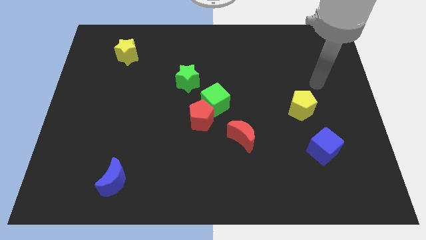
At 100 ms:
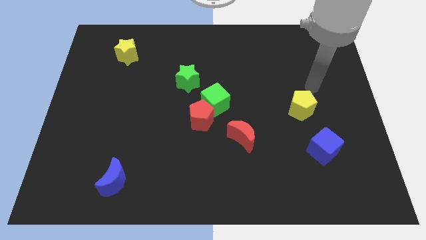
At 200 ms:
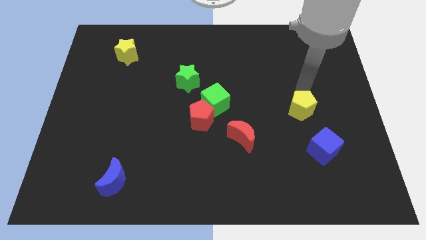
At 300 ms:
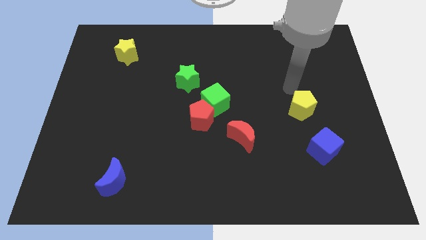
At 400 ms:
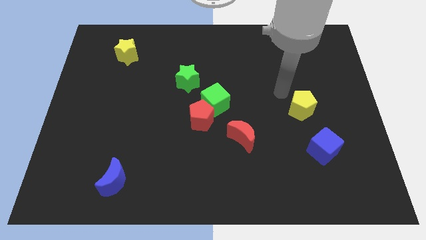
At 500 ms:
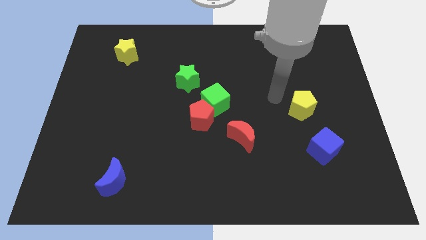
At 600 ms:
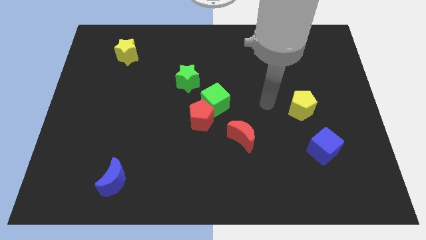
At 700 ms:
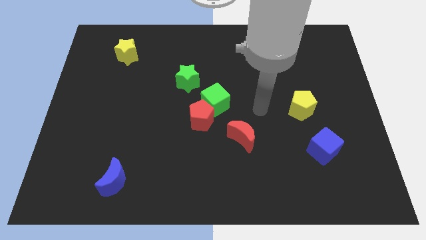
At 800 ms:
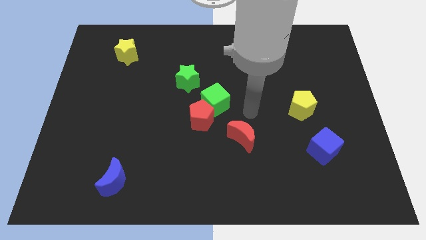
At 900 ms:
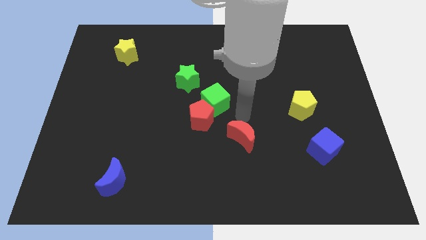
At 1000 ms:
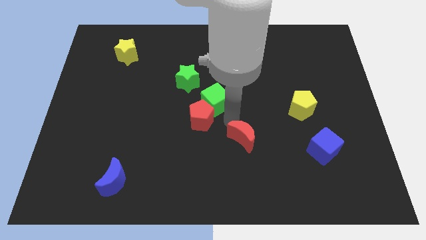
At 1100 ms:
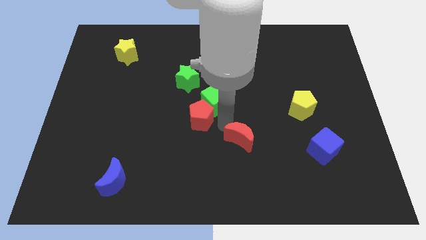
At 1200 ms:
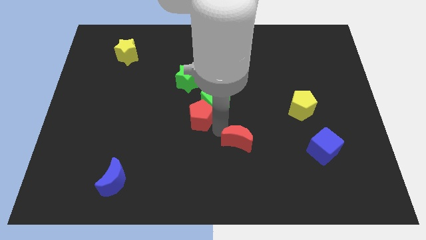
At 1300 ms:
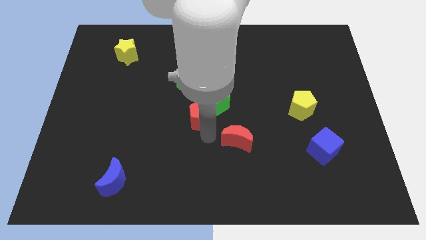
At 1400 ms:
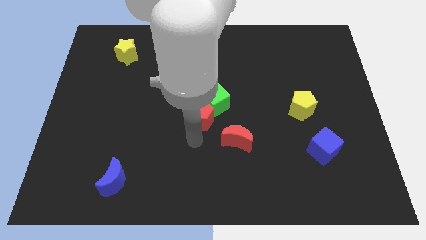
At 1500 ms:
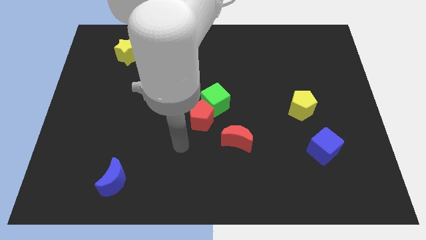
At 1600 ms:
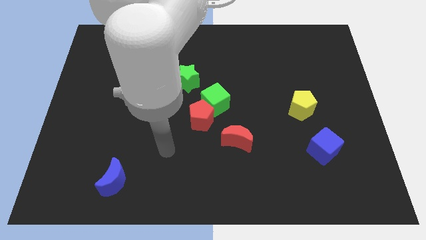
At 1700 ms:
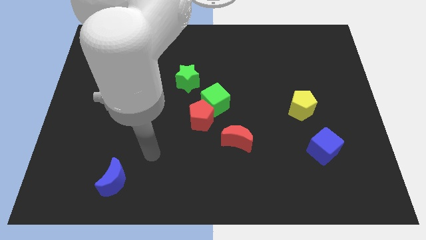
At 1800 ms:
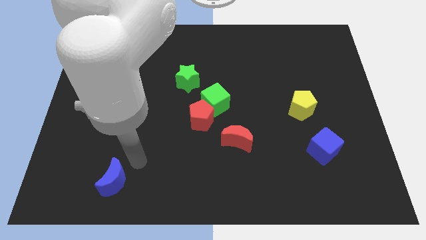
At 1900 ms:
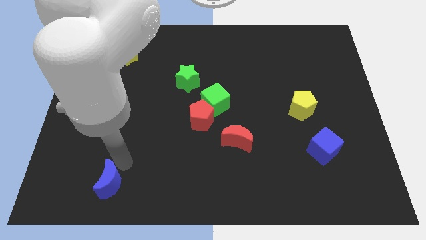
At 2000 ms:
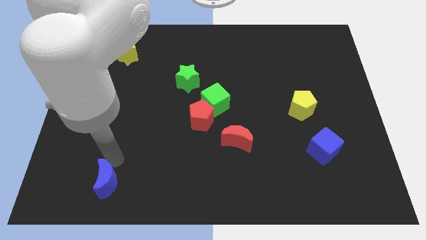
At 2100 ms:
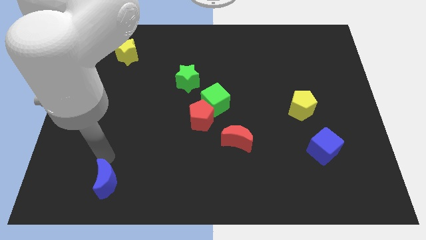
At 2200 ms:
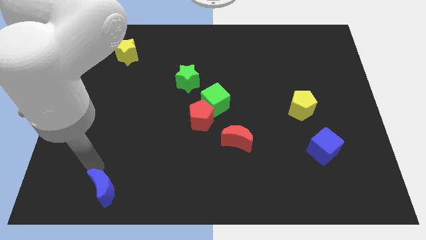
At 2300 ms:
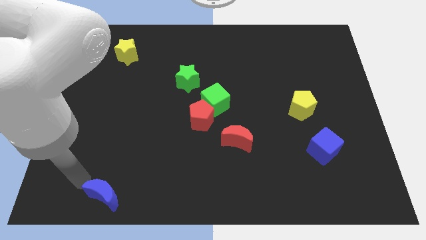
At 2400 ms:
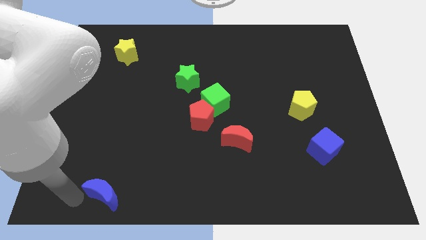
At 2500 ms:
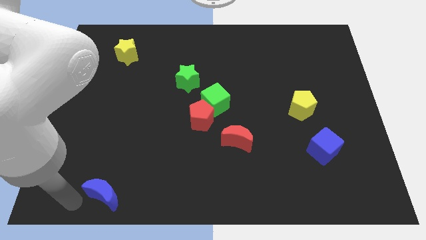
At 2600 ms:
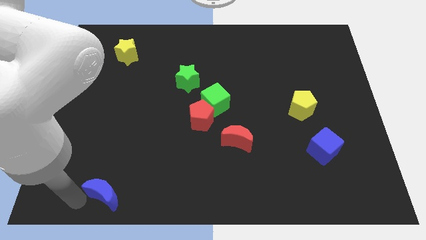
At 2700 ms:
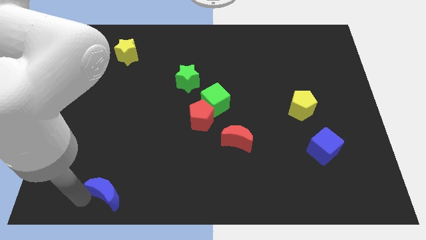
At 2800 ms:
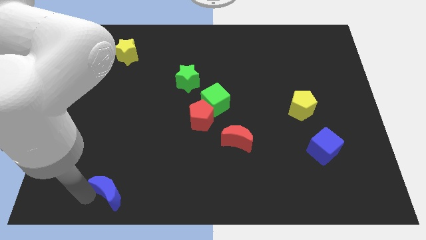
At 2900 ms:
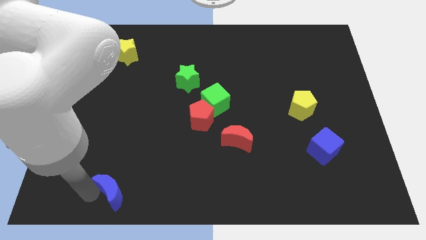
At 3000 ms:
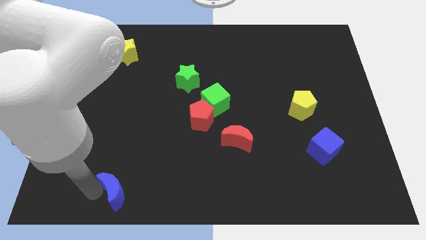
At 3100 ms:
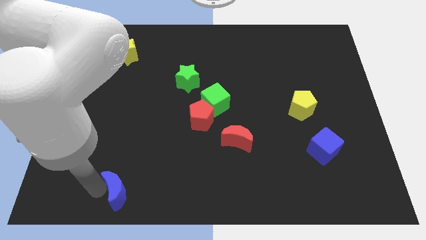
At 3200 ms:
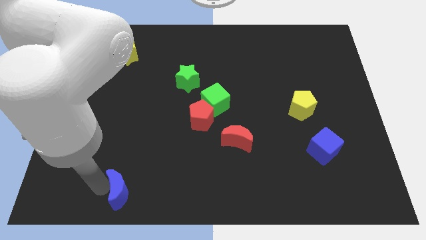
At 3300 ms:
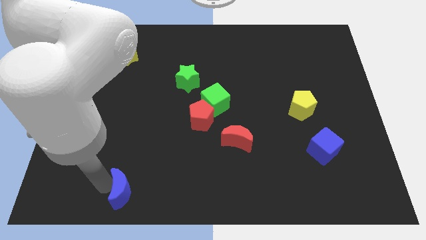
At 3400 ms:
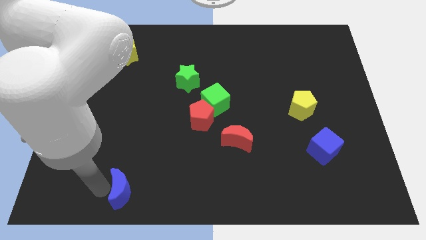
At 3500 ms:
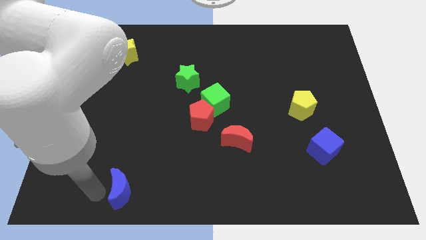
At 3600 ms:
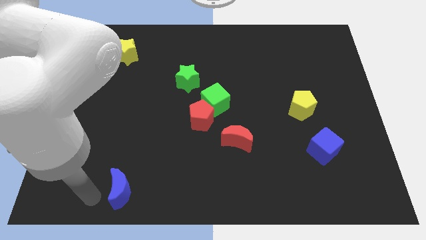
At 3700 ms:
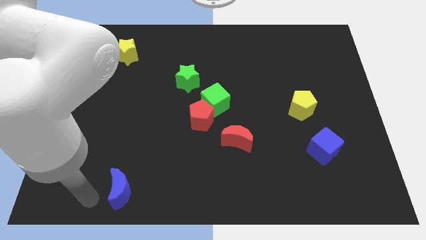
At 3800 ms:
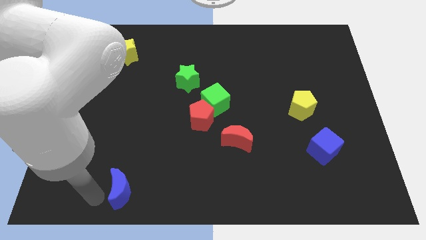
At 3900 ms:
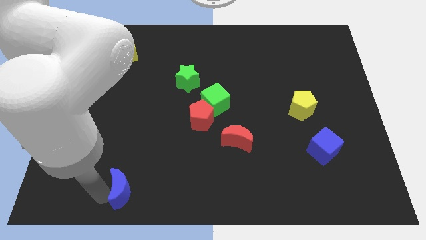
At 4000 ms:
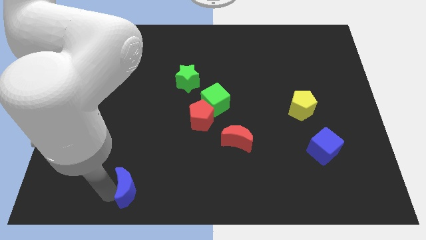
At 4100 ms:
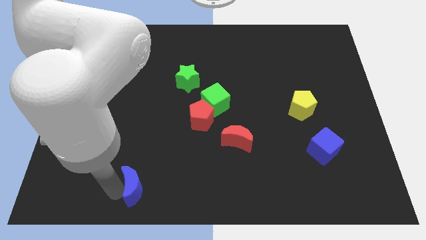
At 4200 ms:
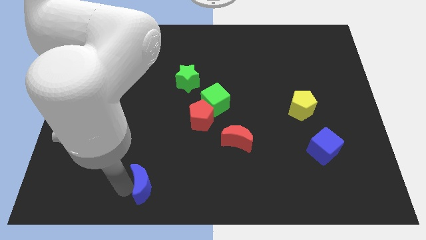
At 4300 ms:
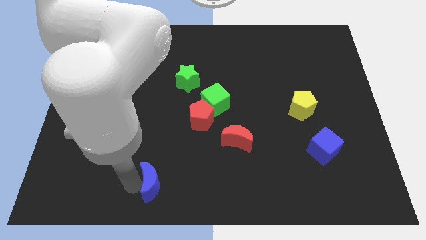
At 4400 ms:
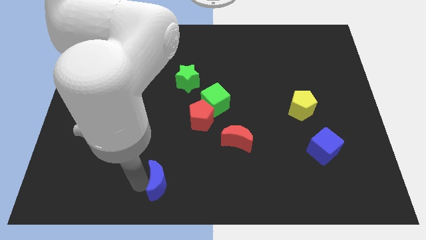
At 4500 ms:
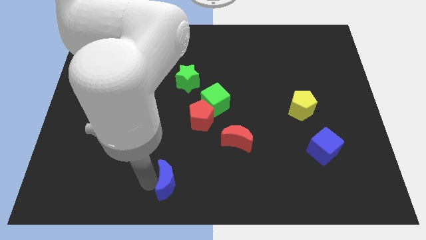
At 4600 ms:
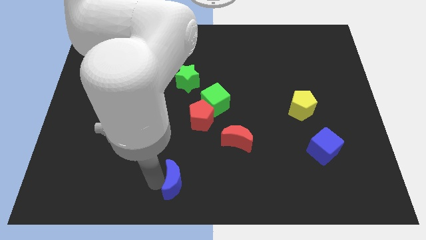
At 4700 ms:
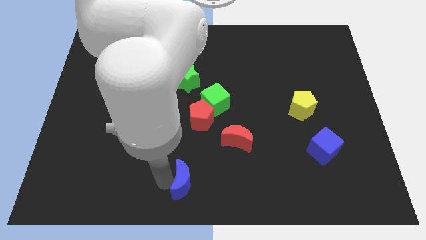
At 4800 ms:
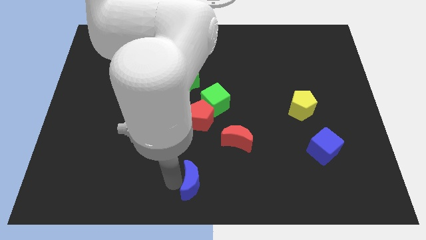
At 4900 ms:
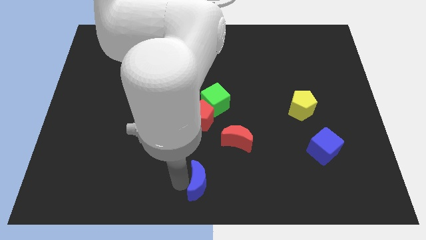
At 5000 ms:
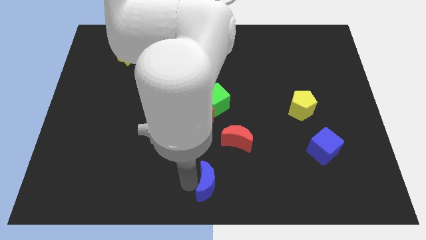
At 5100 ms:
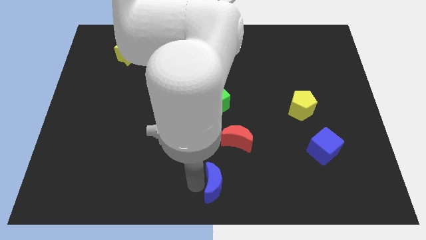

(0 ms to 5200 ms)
slide the blue moon right

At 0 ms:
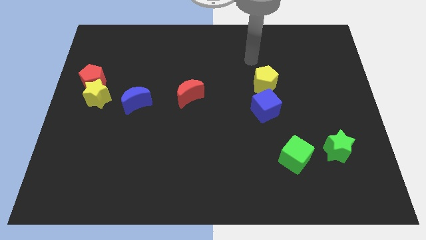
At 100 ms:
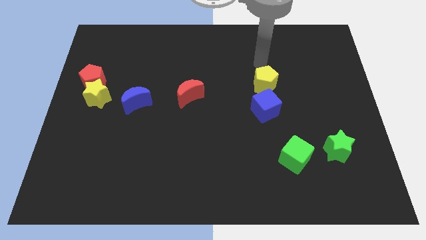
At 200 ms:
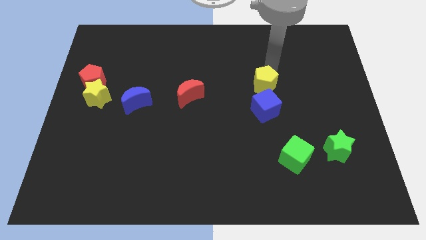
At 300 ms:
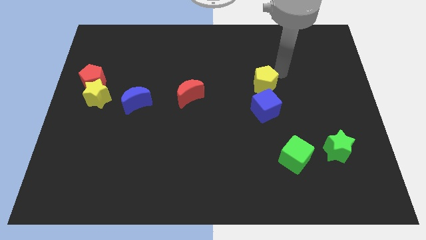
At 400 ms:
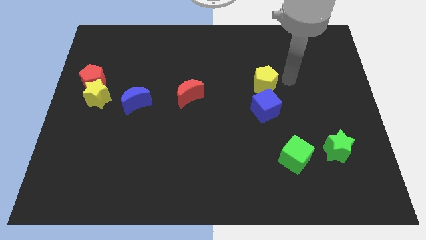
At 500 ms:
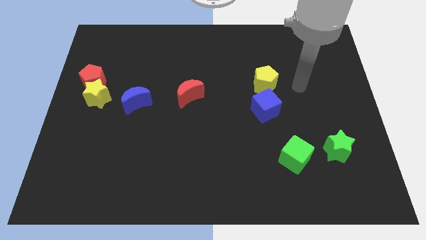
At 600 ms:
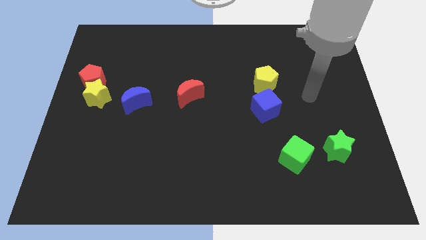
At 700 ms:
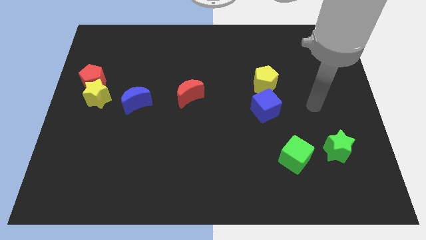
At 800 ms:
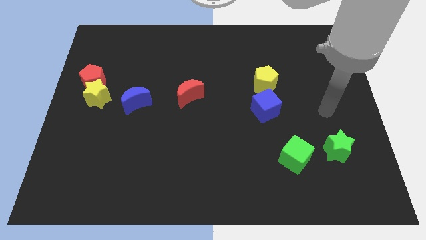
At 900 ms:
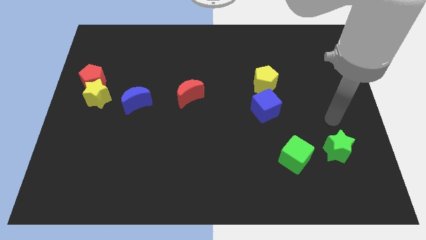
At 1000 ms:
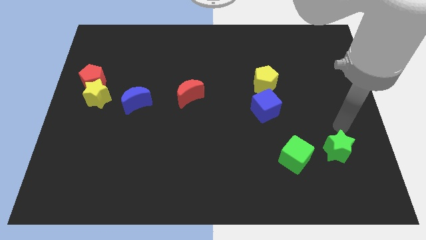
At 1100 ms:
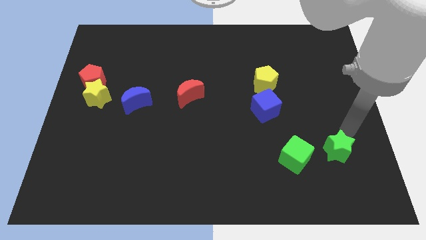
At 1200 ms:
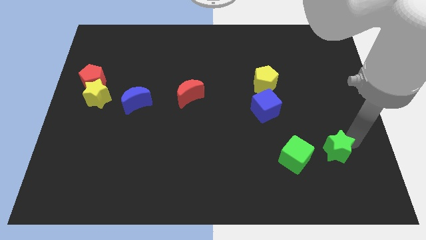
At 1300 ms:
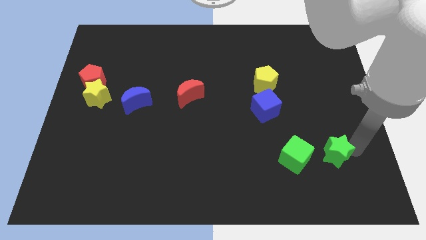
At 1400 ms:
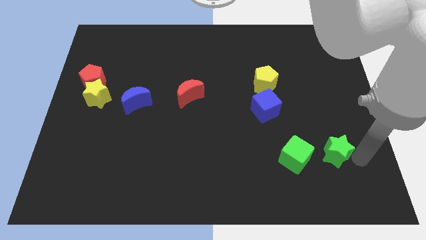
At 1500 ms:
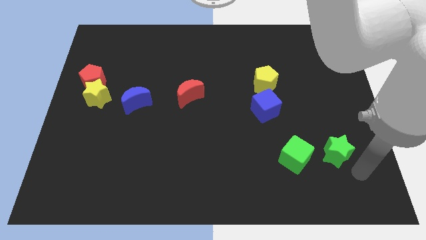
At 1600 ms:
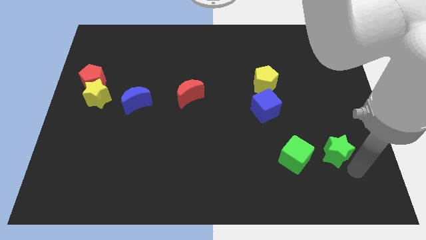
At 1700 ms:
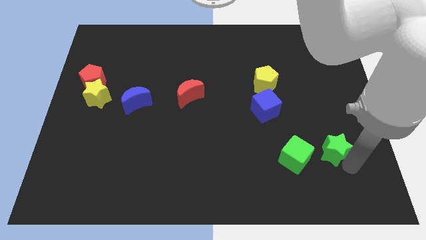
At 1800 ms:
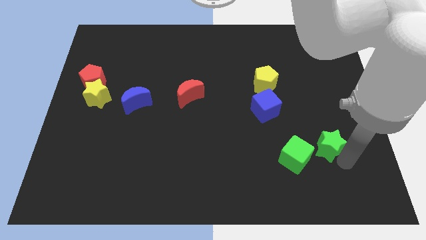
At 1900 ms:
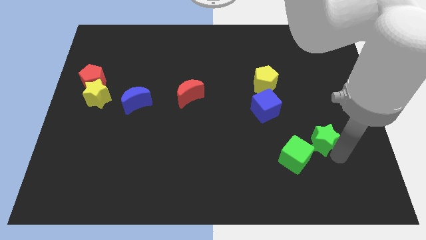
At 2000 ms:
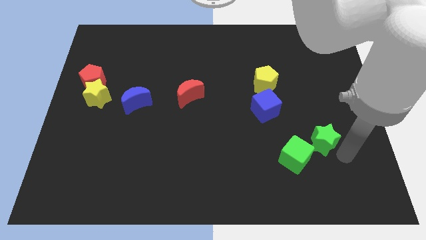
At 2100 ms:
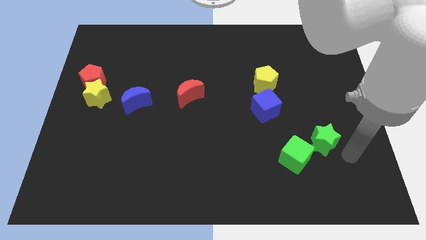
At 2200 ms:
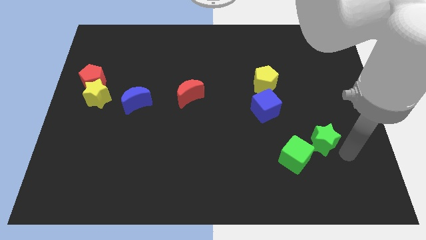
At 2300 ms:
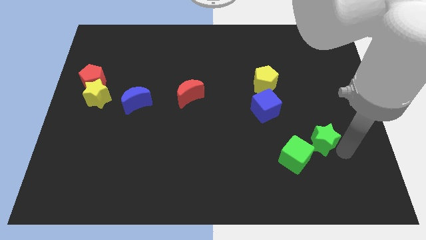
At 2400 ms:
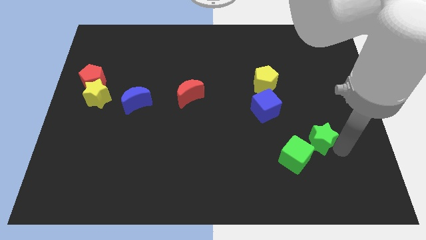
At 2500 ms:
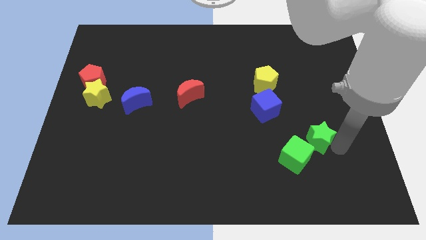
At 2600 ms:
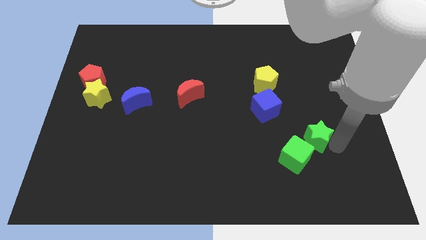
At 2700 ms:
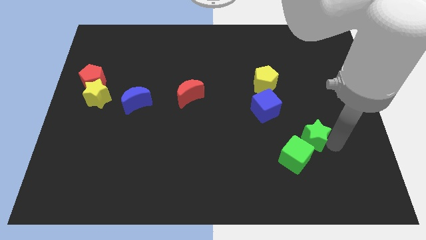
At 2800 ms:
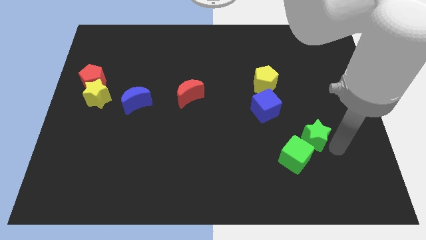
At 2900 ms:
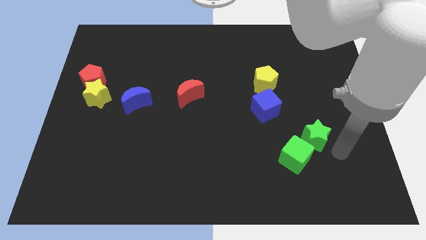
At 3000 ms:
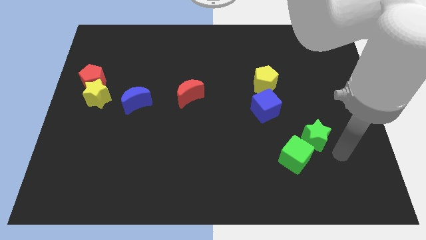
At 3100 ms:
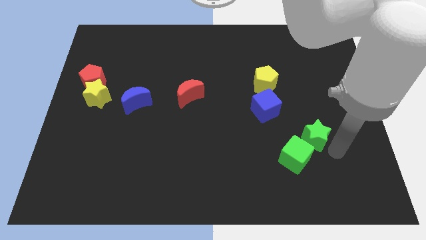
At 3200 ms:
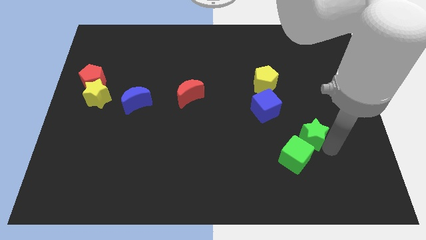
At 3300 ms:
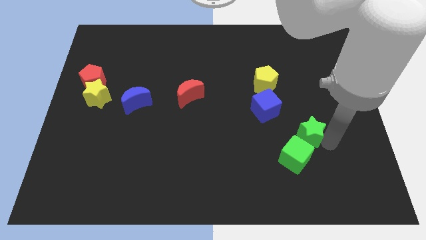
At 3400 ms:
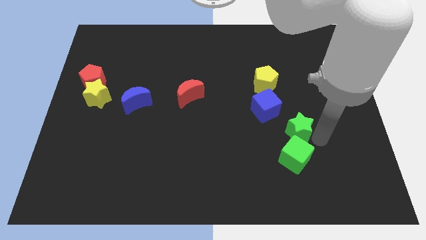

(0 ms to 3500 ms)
slightly push the green star left
